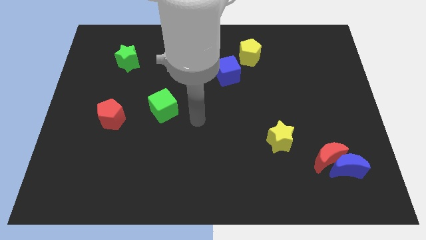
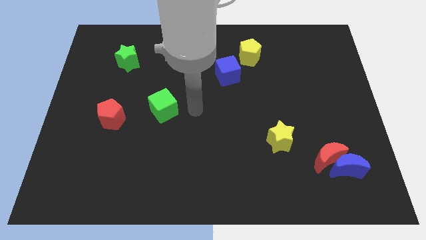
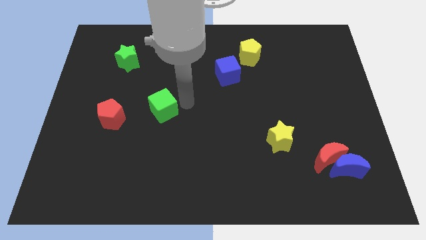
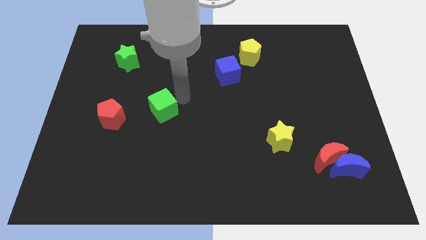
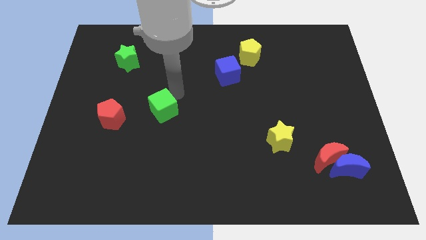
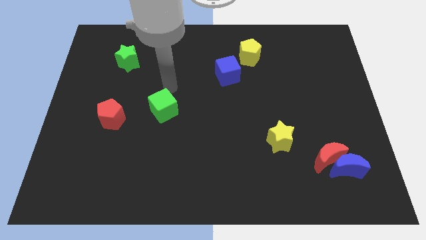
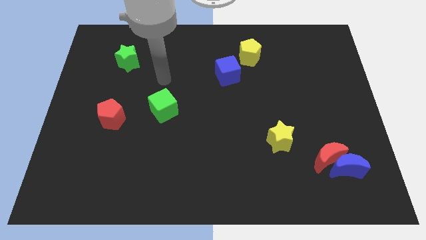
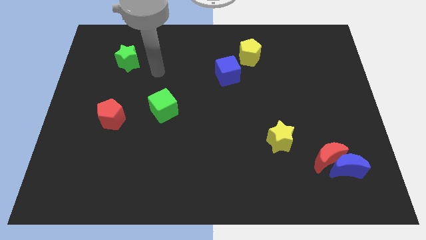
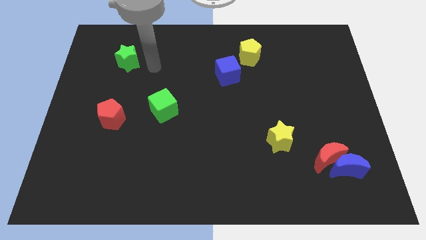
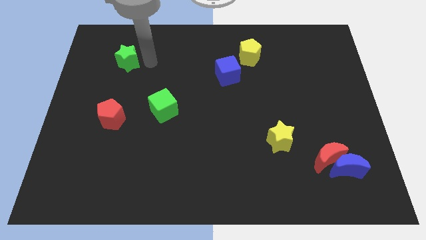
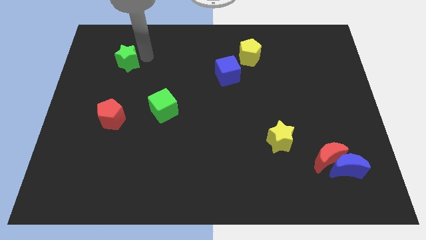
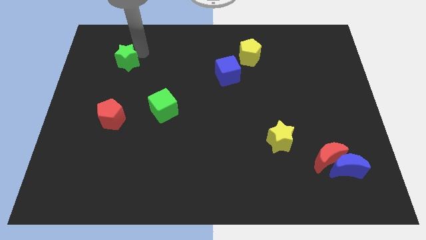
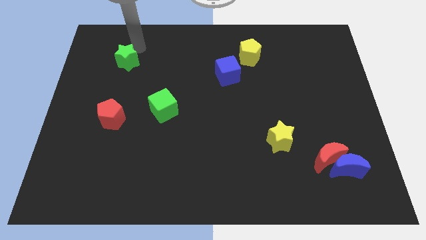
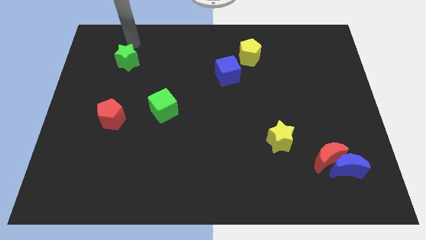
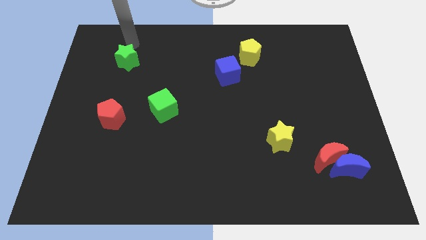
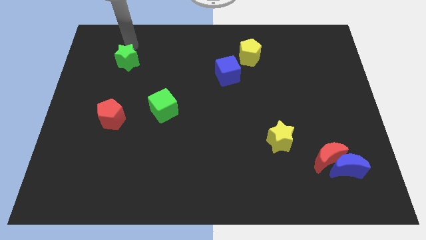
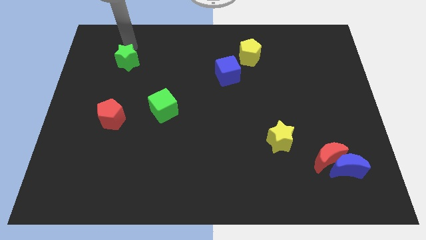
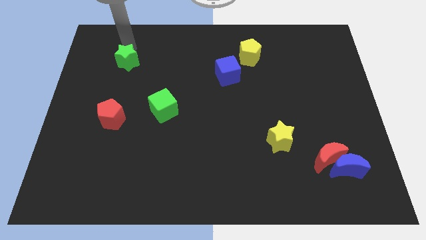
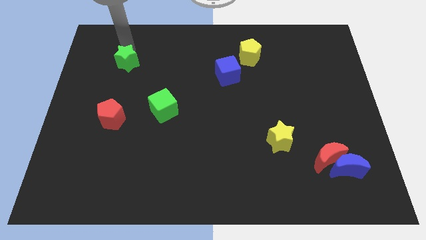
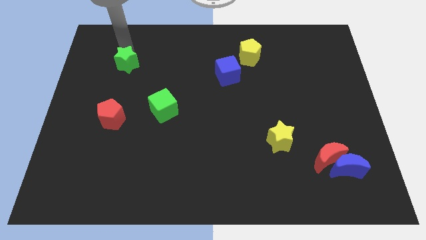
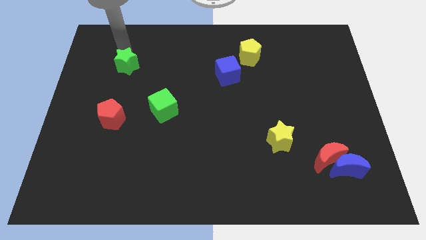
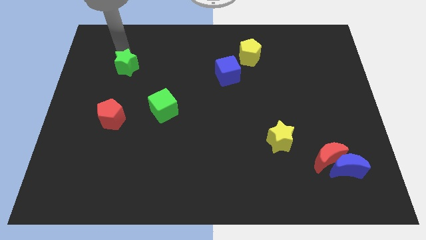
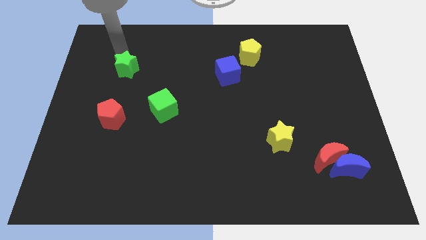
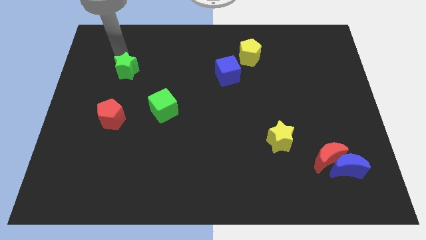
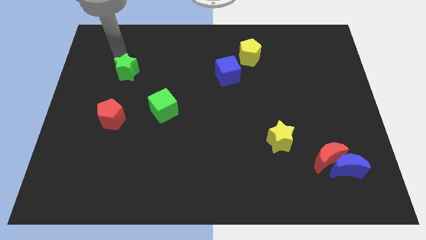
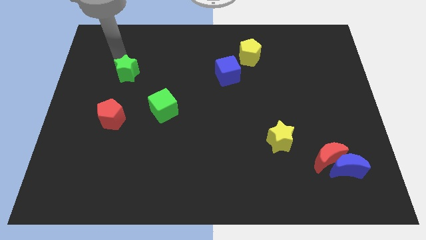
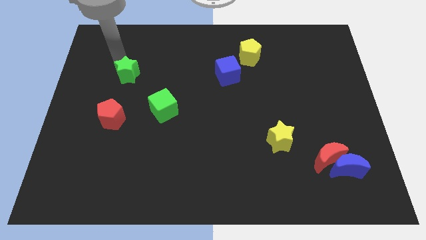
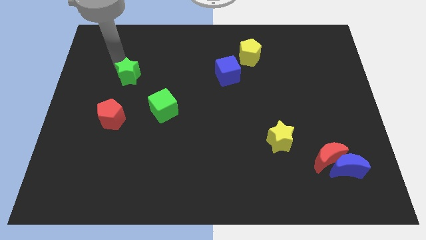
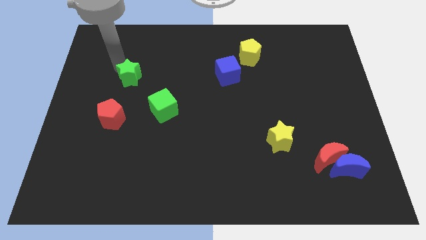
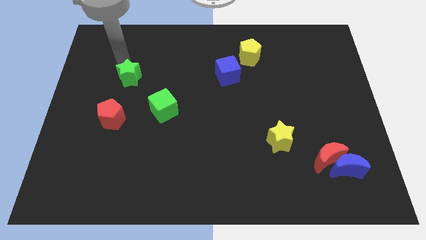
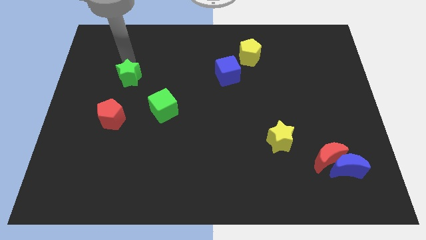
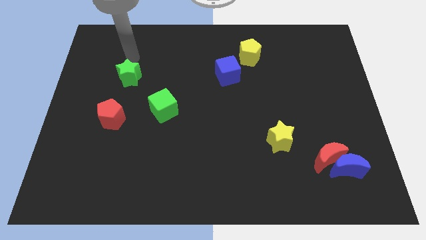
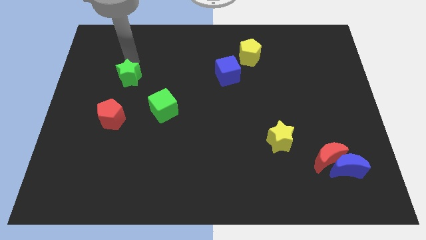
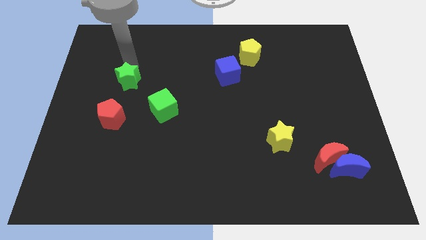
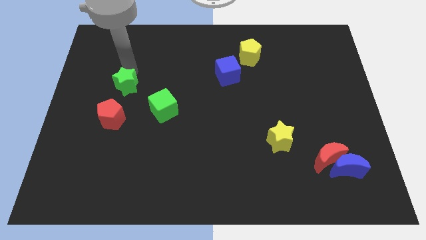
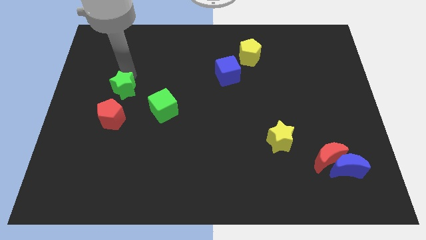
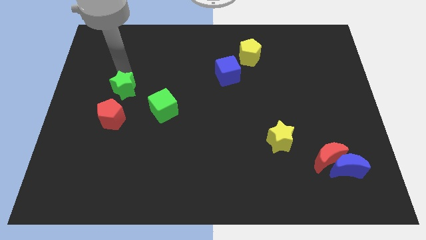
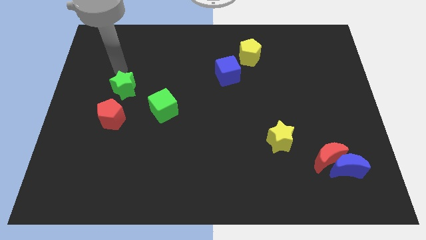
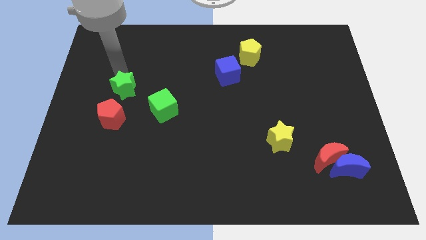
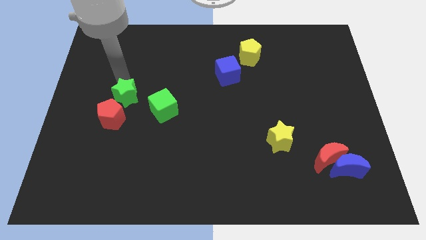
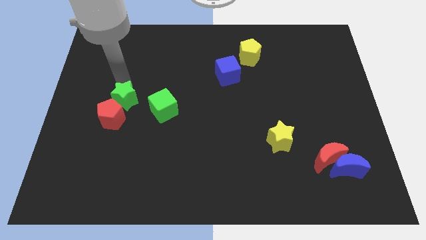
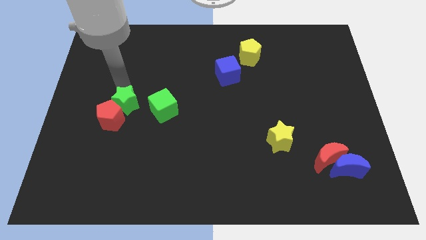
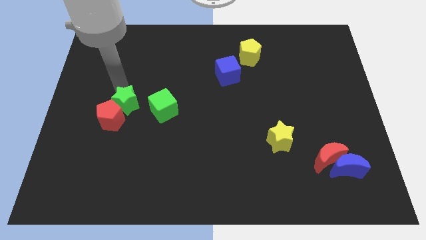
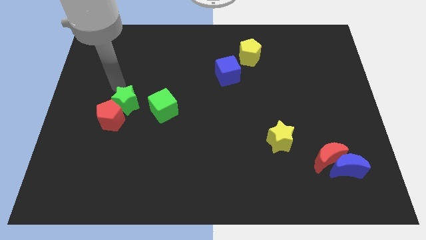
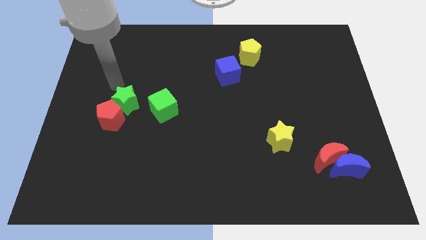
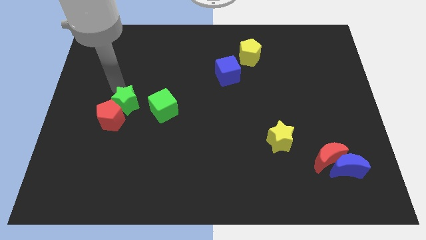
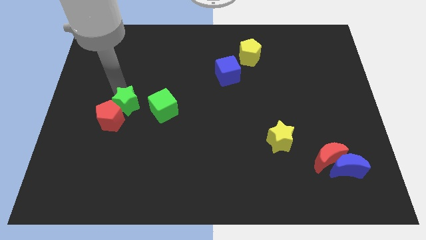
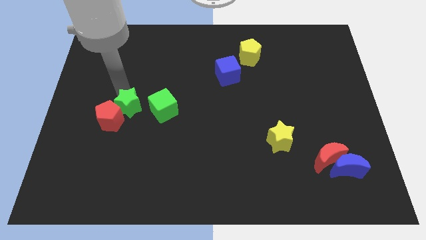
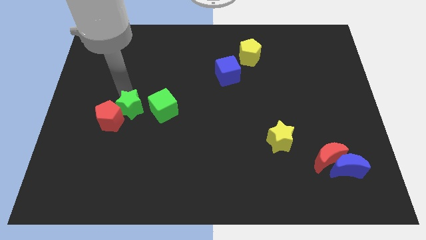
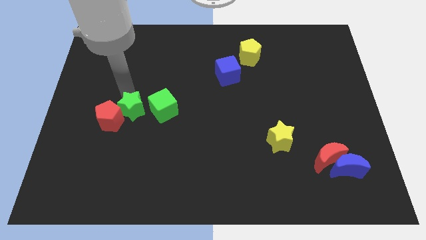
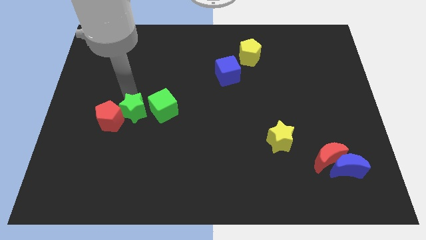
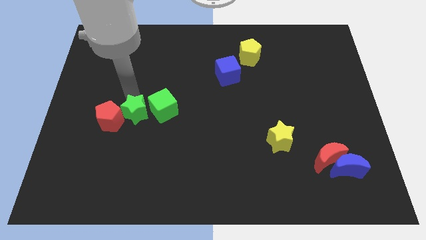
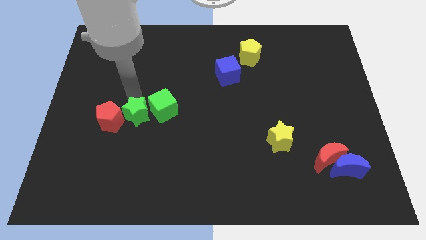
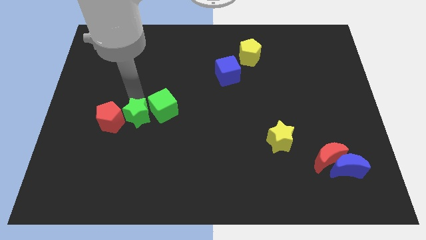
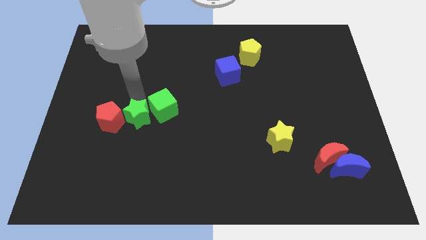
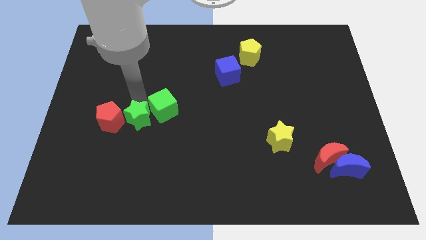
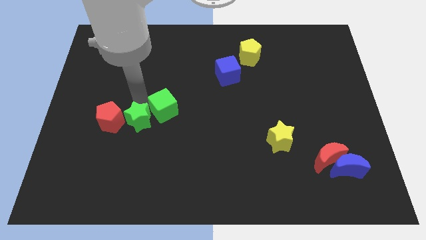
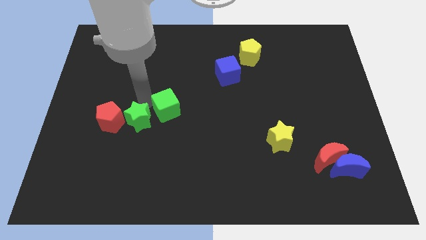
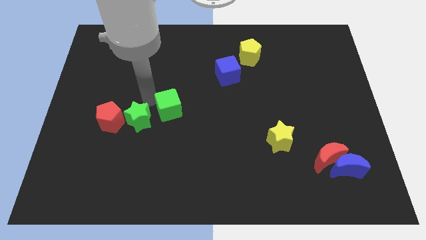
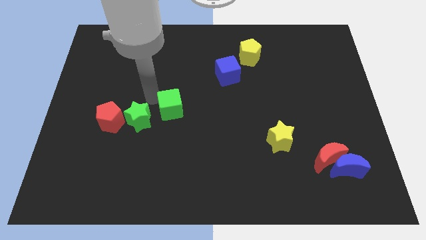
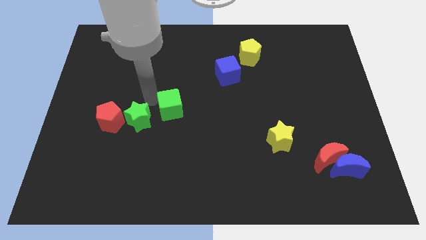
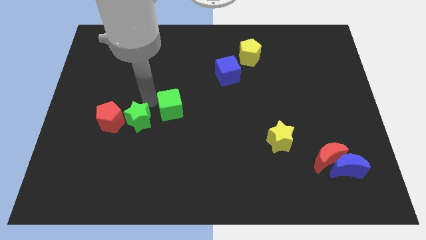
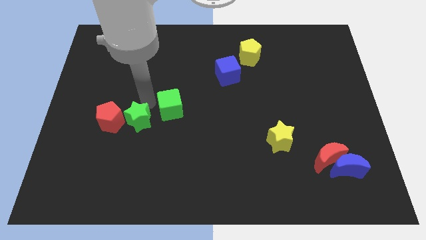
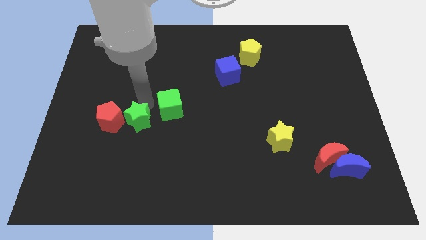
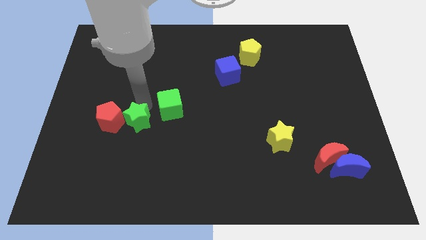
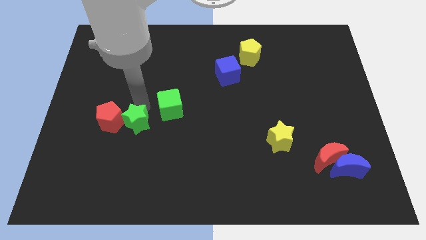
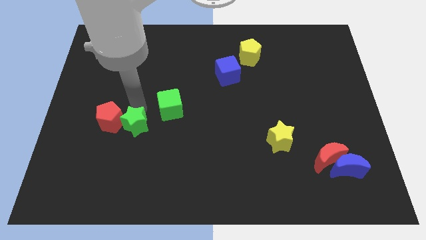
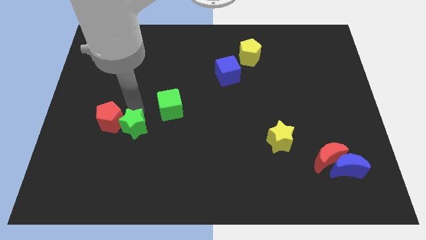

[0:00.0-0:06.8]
slide the green star downwards

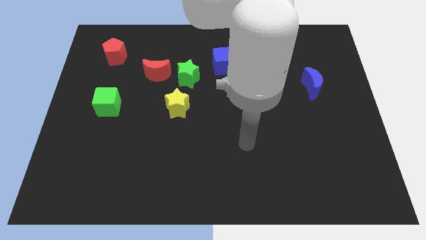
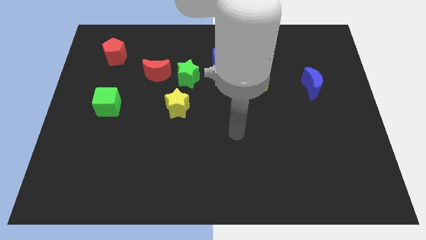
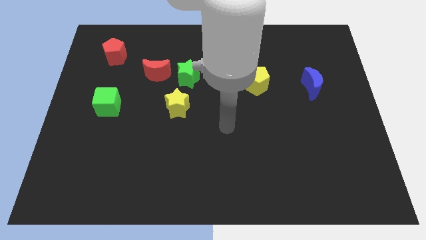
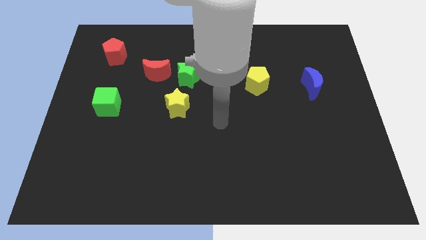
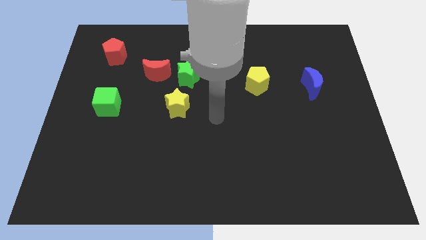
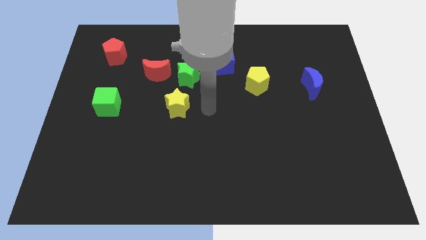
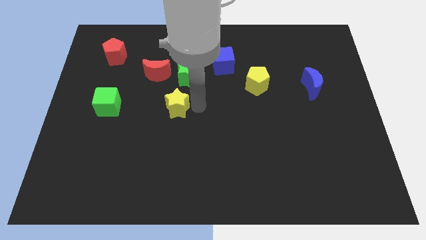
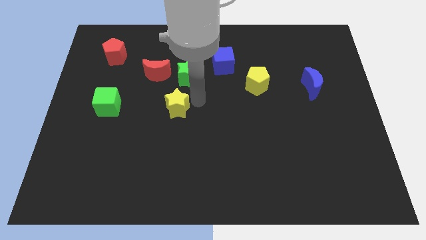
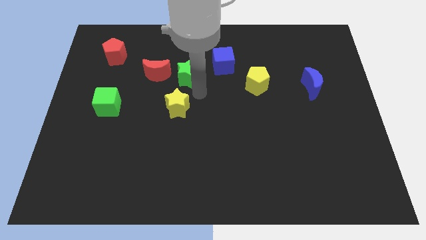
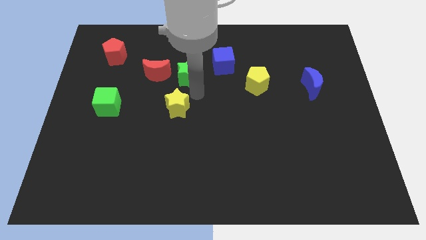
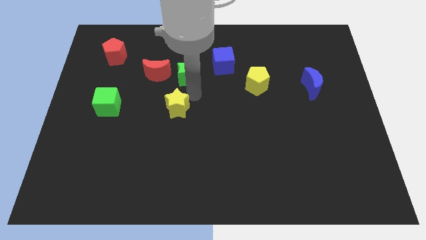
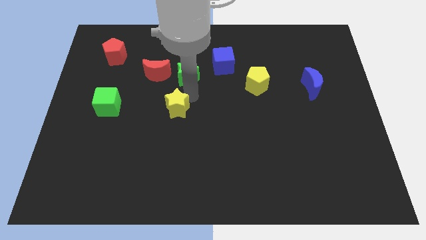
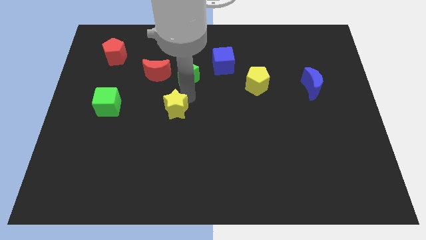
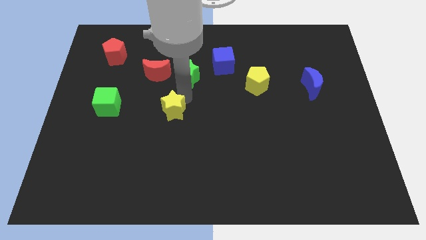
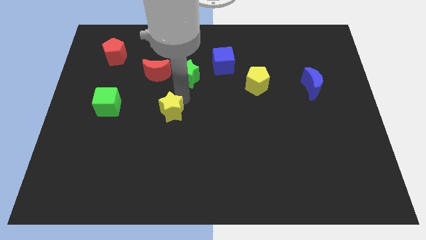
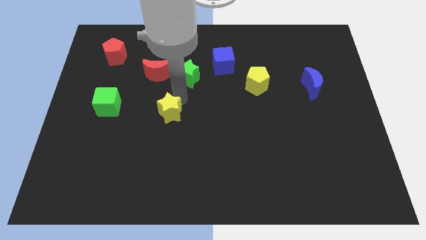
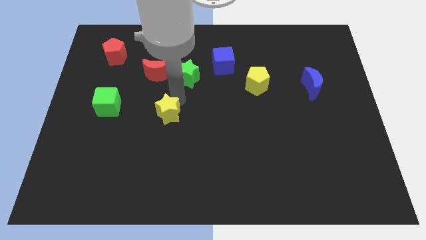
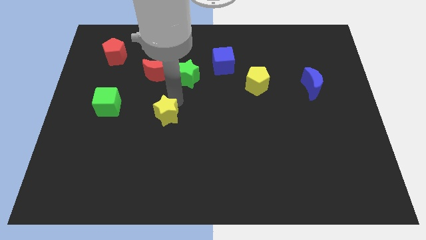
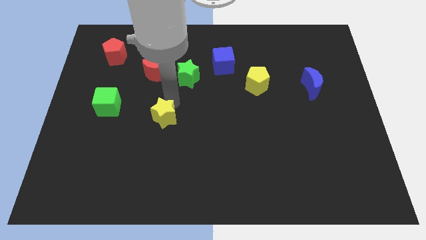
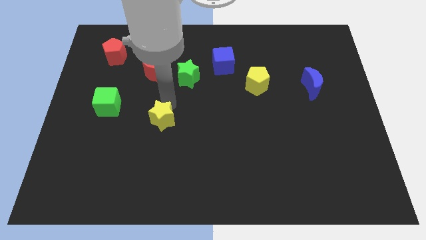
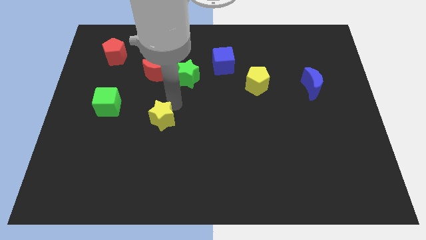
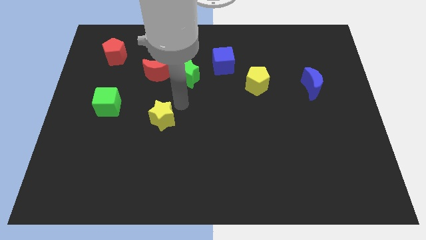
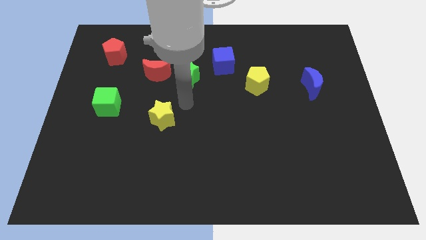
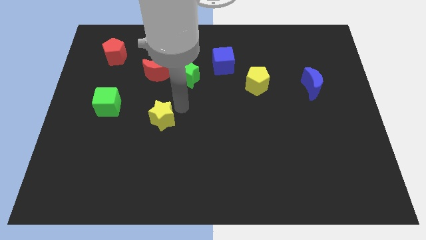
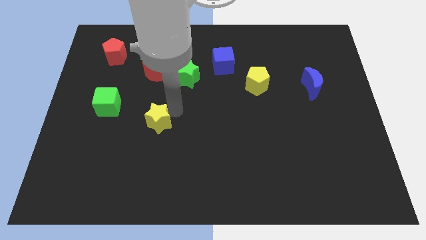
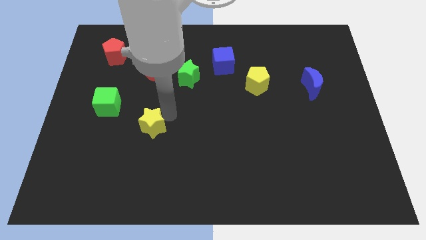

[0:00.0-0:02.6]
push the yellow star a little bit diagonally down and to the left
